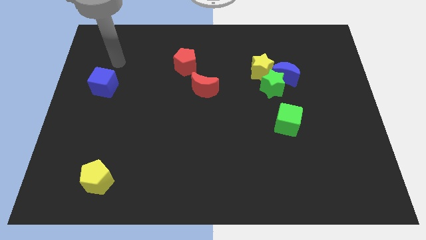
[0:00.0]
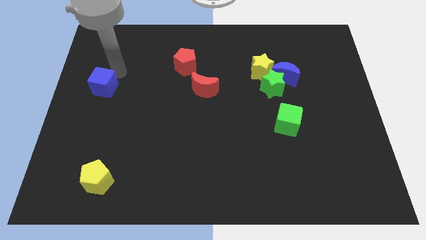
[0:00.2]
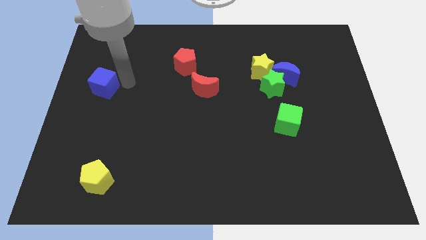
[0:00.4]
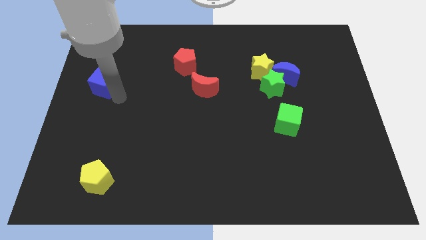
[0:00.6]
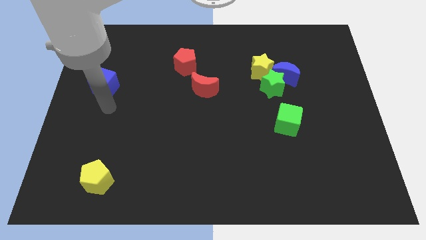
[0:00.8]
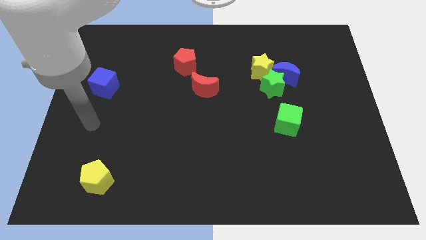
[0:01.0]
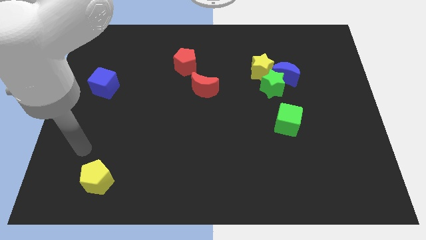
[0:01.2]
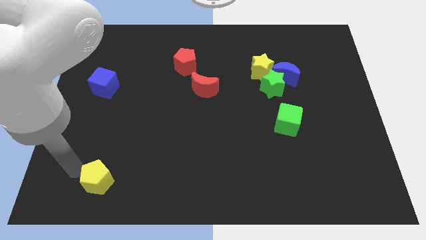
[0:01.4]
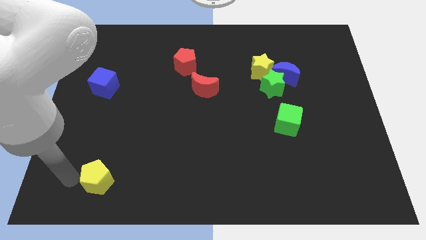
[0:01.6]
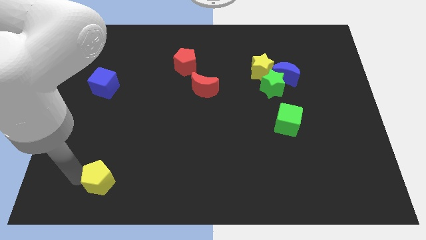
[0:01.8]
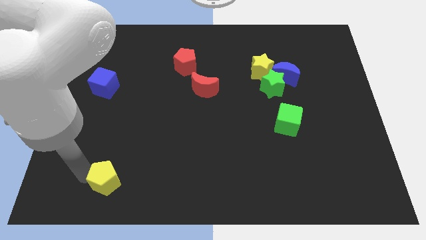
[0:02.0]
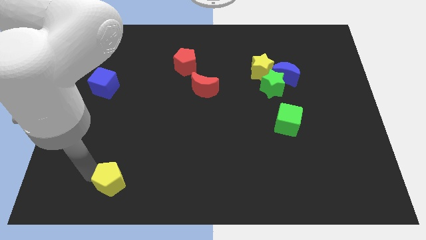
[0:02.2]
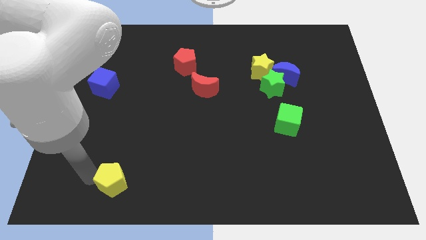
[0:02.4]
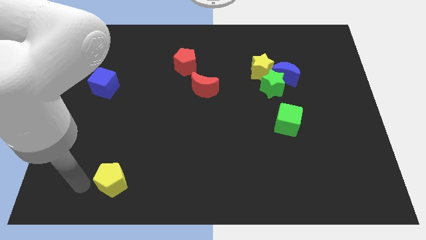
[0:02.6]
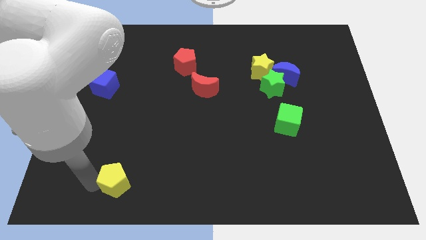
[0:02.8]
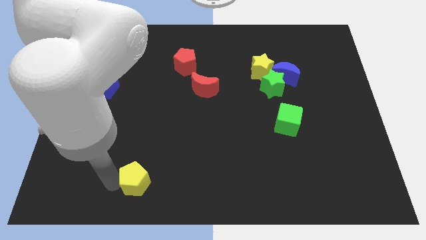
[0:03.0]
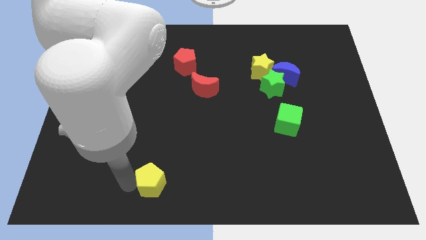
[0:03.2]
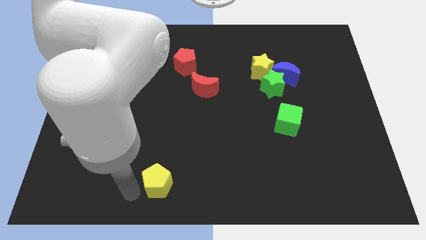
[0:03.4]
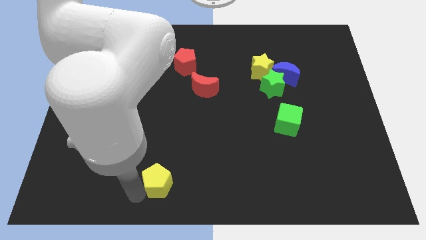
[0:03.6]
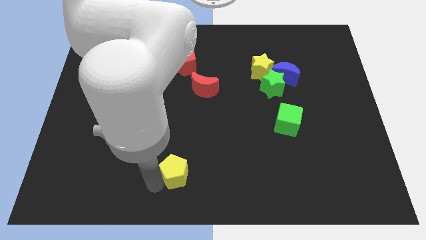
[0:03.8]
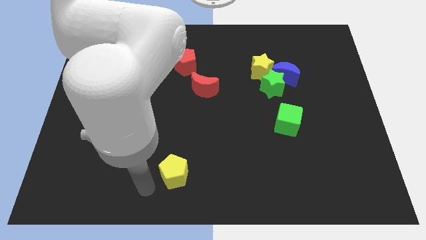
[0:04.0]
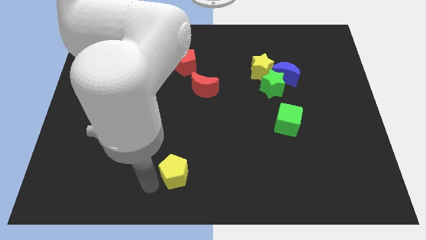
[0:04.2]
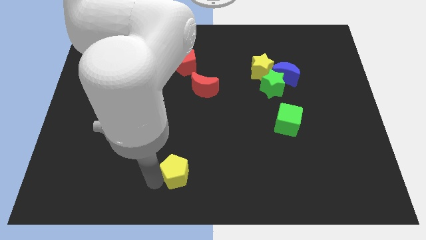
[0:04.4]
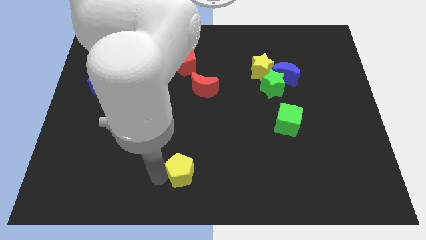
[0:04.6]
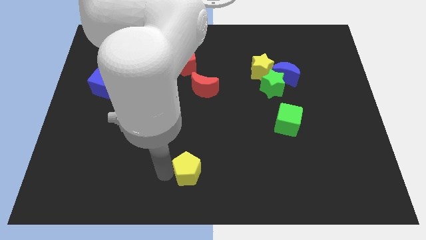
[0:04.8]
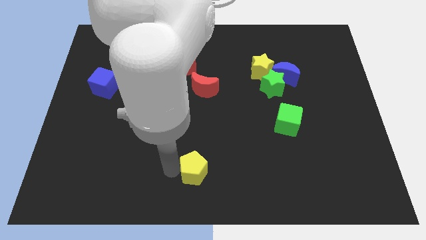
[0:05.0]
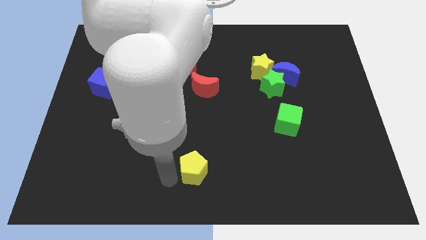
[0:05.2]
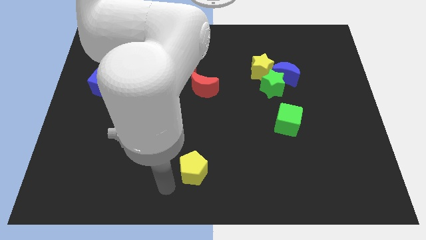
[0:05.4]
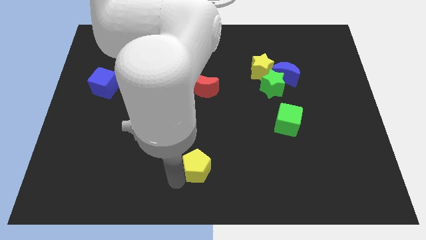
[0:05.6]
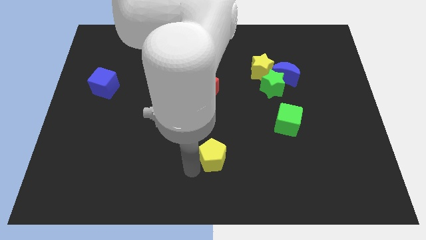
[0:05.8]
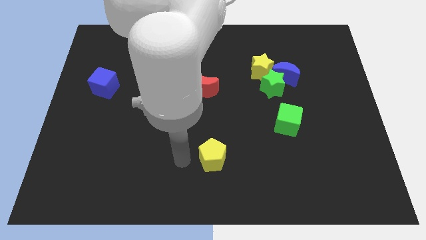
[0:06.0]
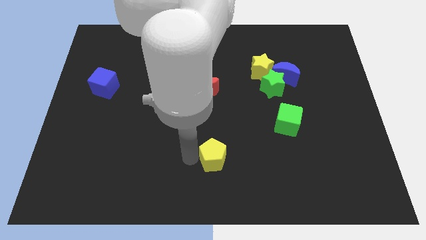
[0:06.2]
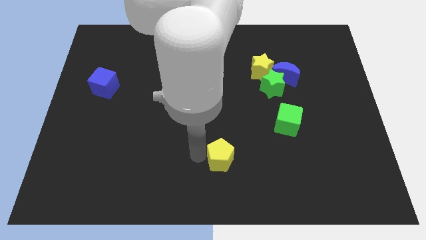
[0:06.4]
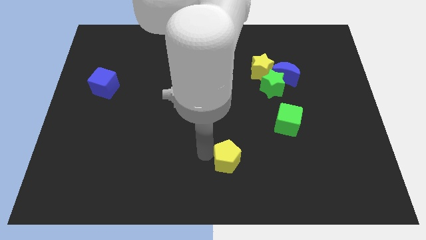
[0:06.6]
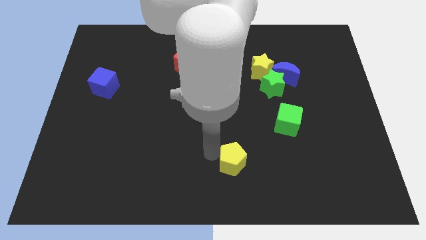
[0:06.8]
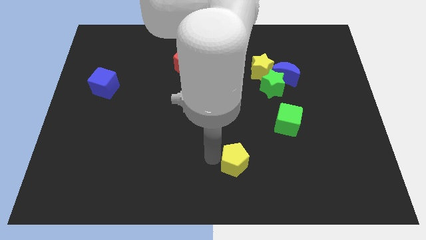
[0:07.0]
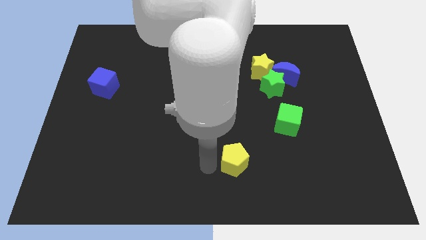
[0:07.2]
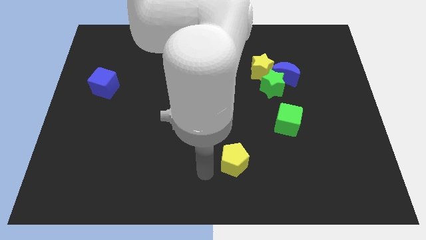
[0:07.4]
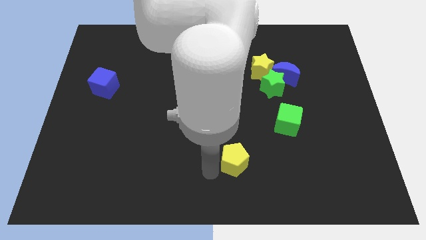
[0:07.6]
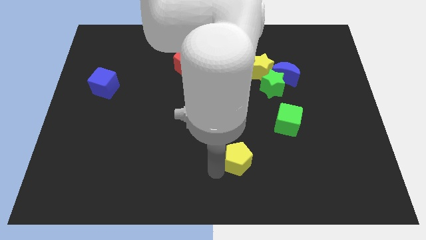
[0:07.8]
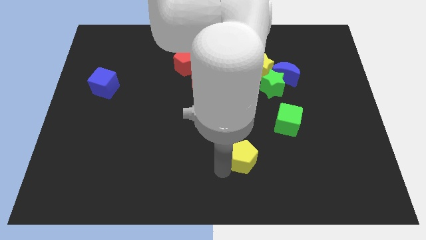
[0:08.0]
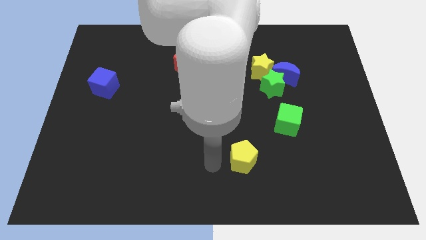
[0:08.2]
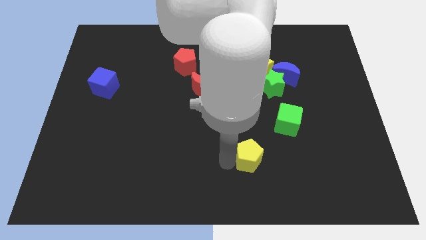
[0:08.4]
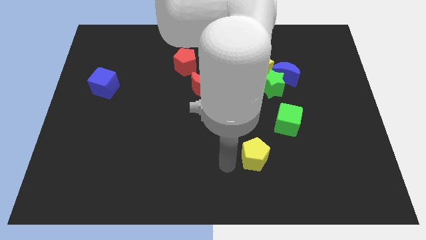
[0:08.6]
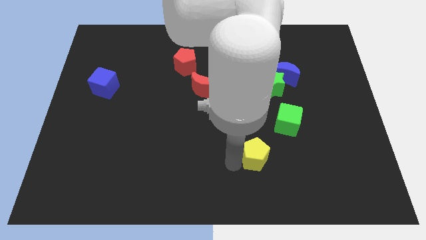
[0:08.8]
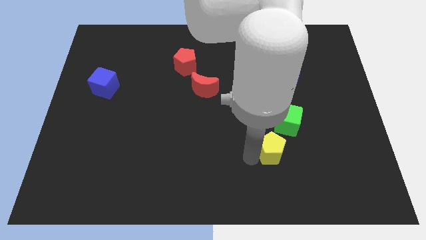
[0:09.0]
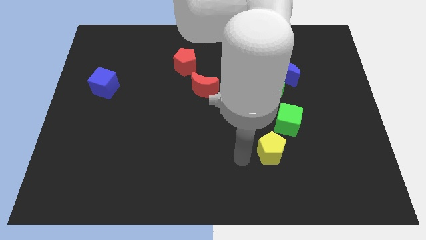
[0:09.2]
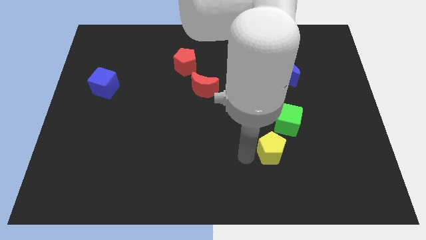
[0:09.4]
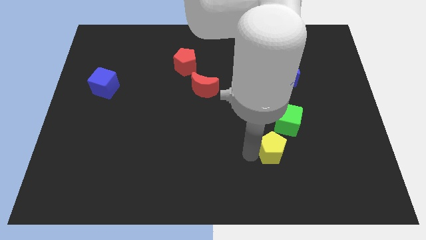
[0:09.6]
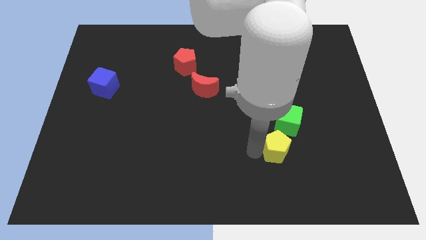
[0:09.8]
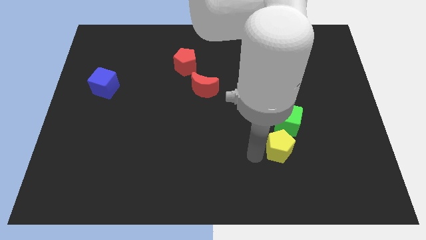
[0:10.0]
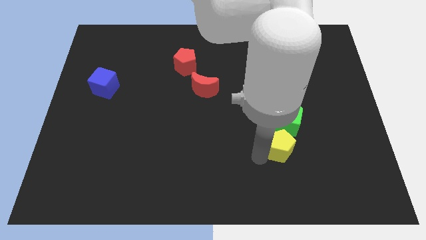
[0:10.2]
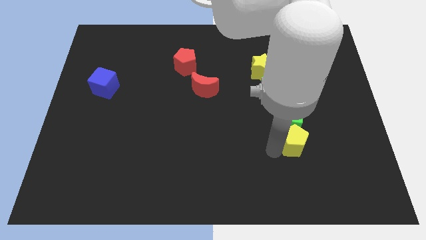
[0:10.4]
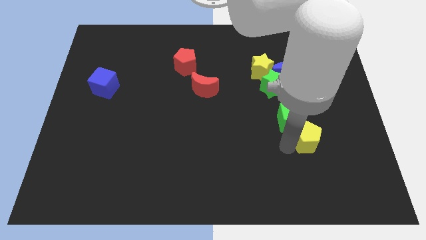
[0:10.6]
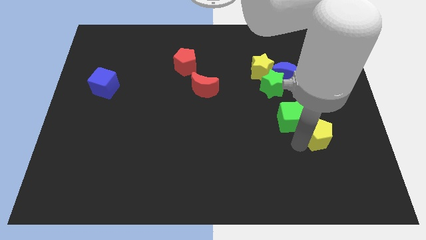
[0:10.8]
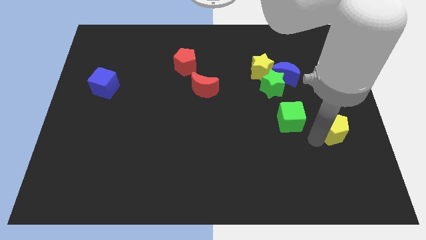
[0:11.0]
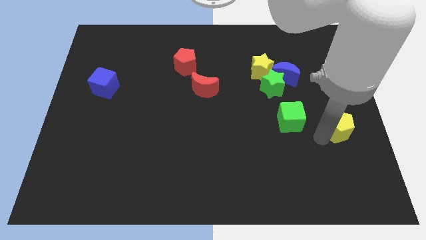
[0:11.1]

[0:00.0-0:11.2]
push the yellow pentagon to the right side of the board

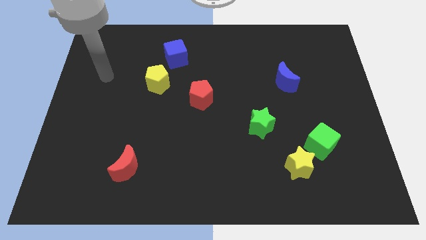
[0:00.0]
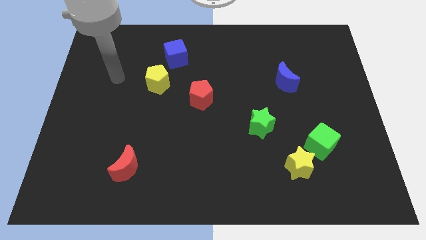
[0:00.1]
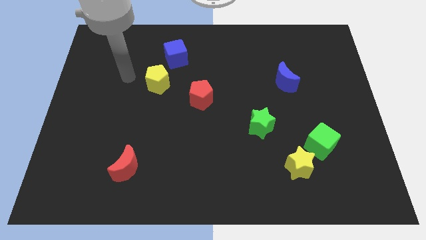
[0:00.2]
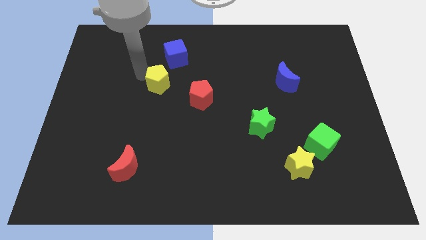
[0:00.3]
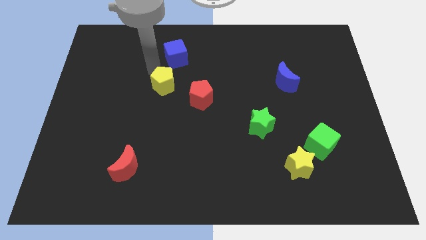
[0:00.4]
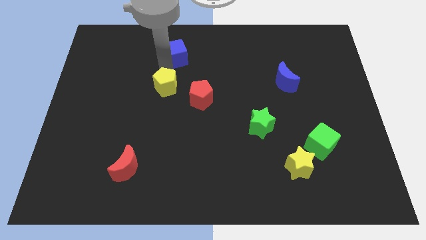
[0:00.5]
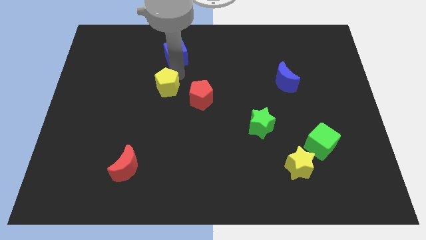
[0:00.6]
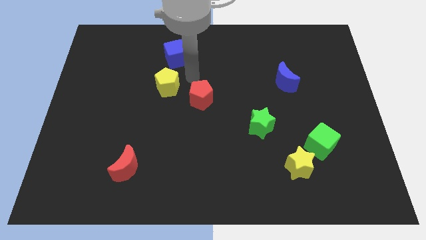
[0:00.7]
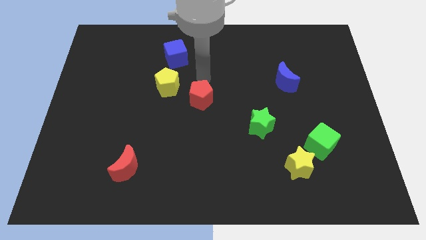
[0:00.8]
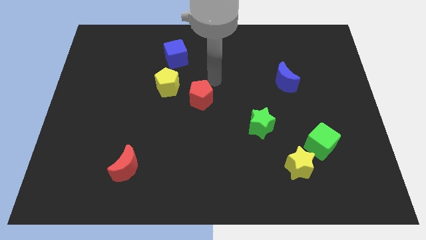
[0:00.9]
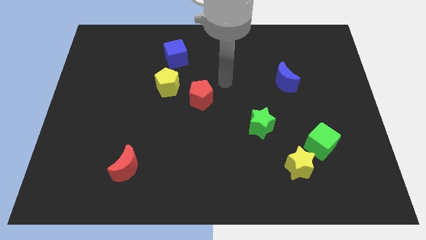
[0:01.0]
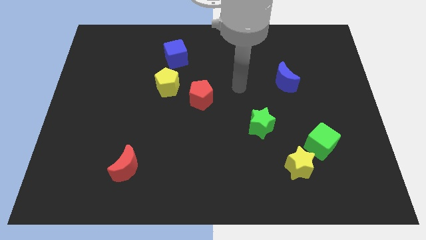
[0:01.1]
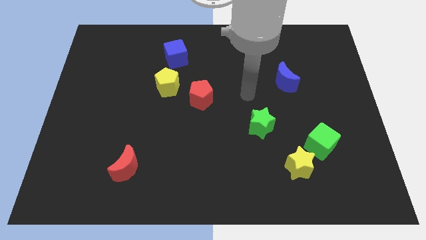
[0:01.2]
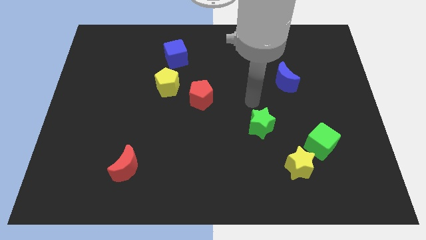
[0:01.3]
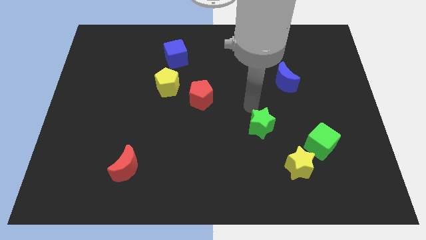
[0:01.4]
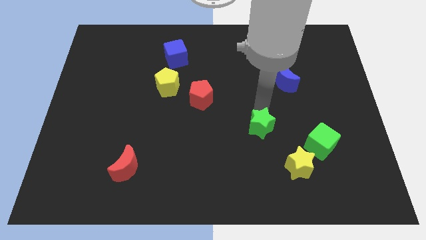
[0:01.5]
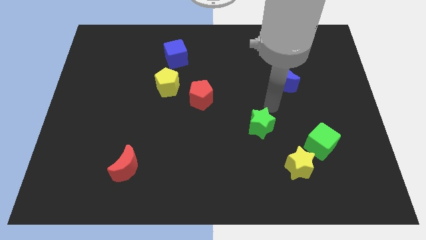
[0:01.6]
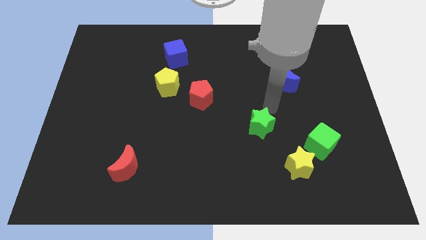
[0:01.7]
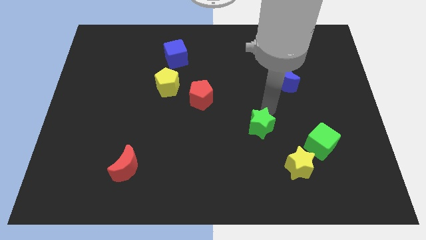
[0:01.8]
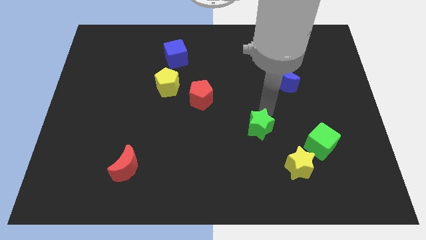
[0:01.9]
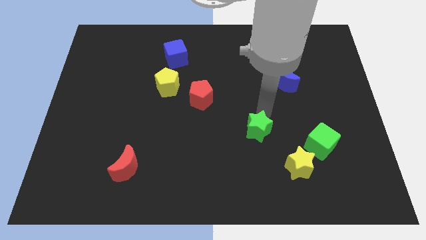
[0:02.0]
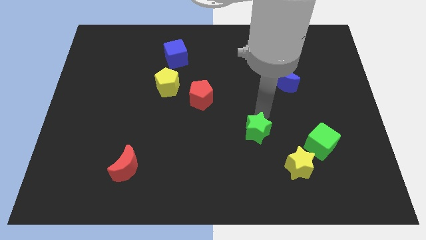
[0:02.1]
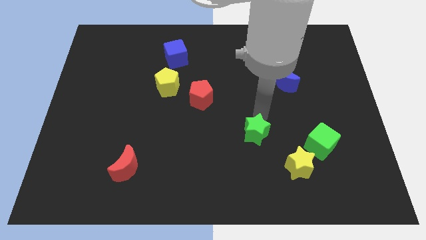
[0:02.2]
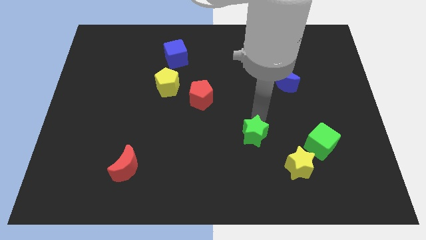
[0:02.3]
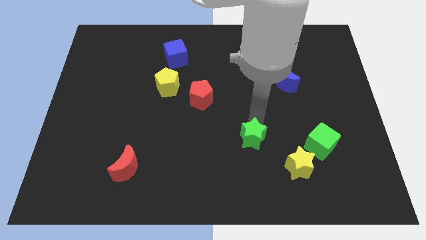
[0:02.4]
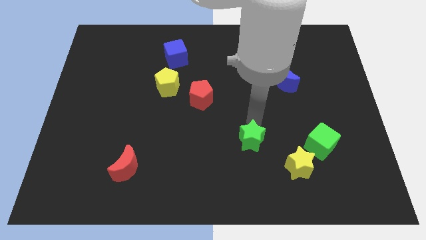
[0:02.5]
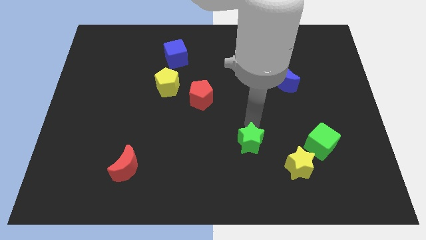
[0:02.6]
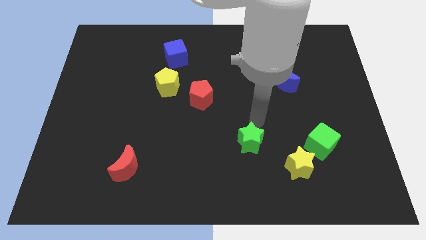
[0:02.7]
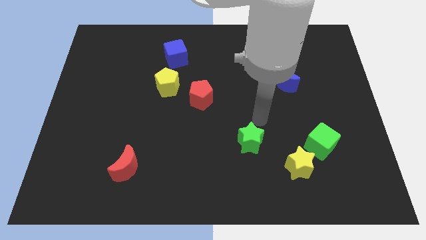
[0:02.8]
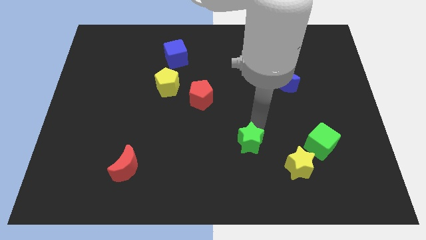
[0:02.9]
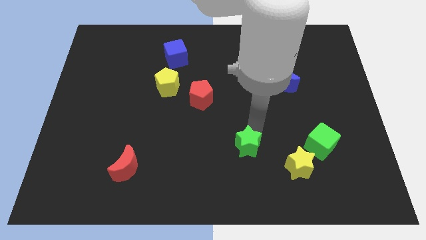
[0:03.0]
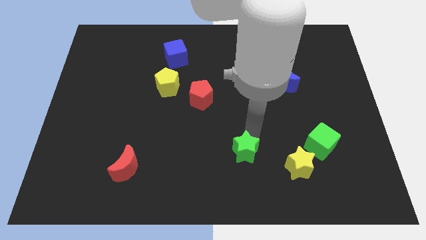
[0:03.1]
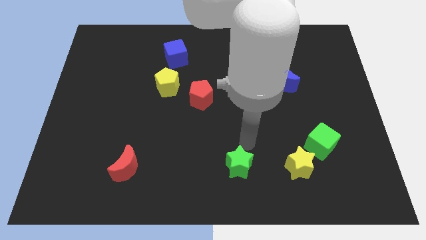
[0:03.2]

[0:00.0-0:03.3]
slide the green star to the bottom
